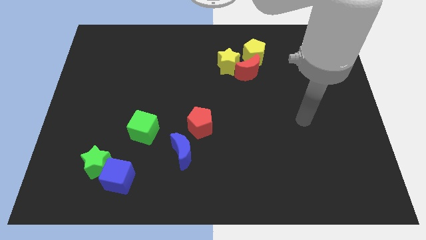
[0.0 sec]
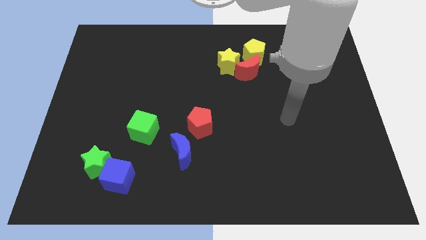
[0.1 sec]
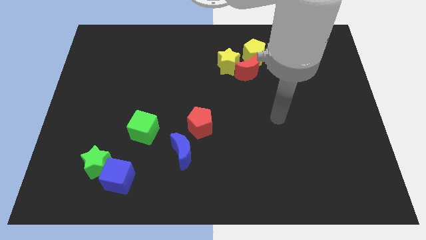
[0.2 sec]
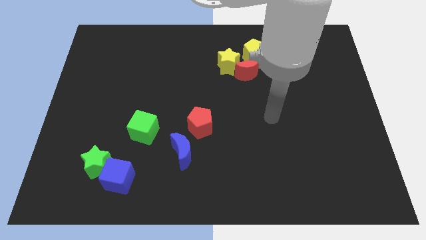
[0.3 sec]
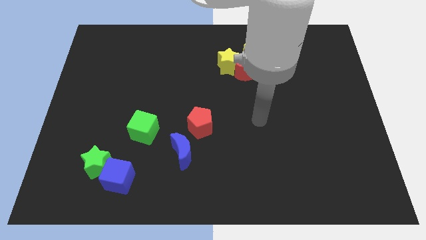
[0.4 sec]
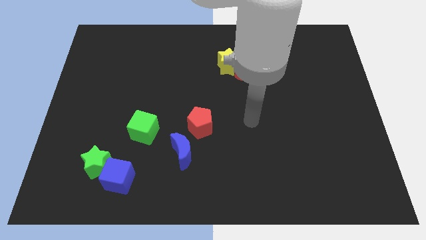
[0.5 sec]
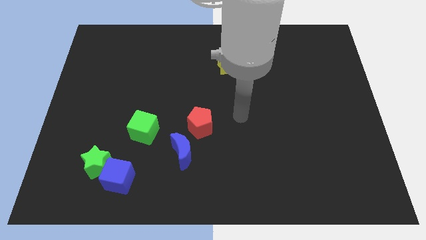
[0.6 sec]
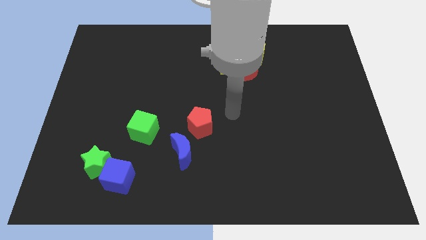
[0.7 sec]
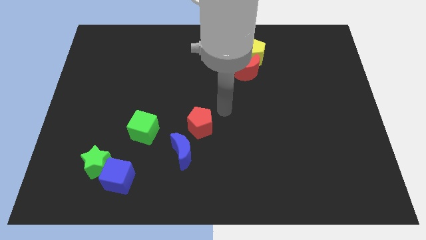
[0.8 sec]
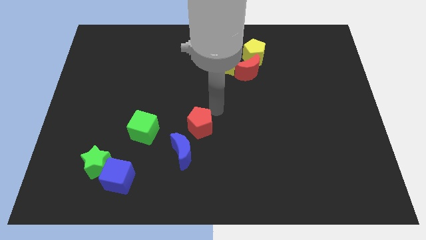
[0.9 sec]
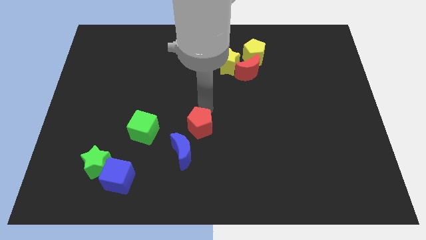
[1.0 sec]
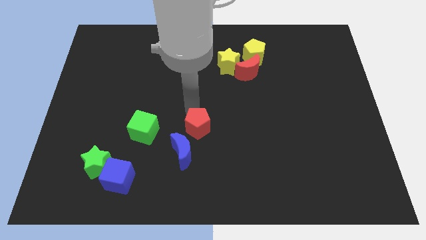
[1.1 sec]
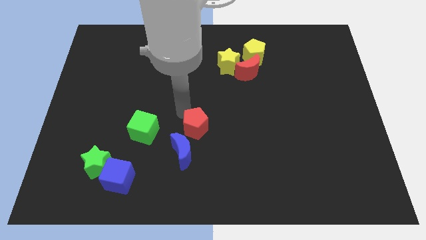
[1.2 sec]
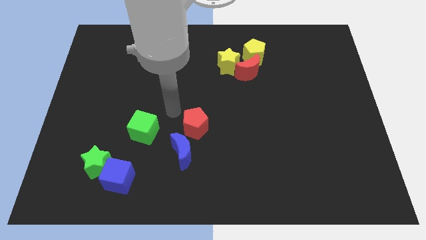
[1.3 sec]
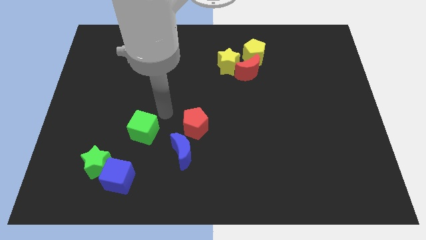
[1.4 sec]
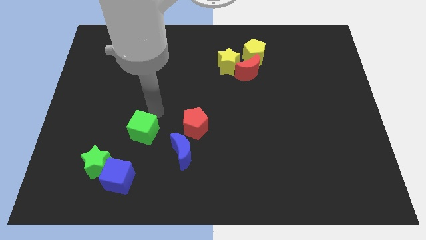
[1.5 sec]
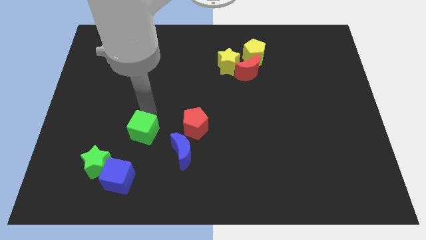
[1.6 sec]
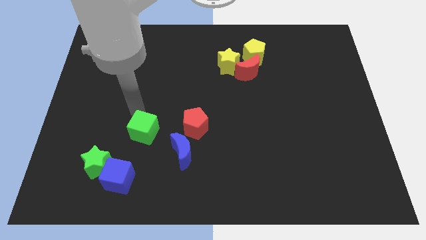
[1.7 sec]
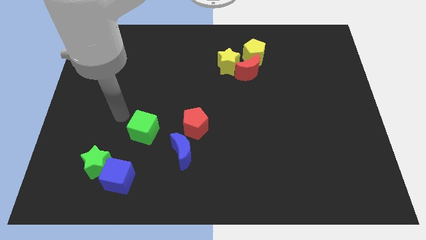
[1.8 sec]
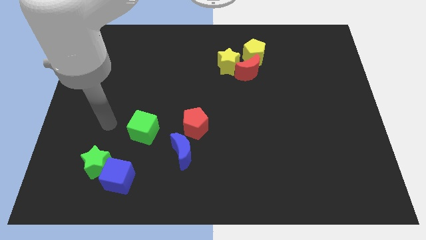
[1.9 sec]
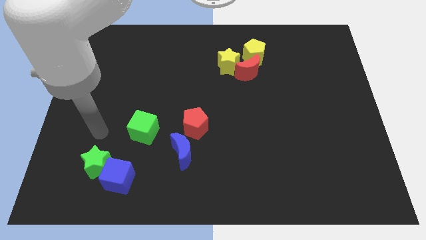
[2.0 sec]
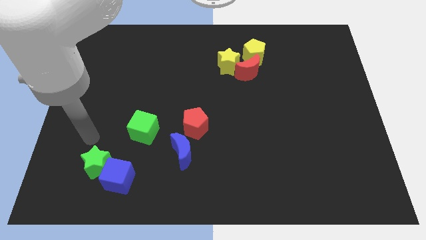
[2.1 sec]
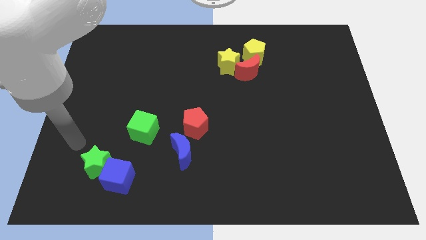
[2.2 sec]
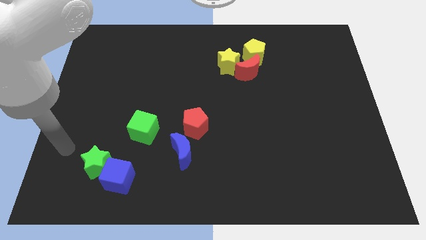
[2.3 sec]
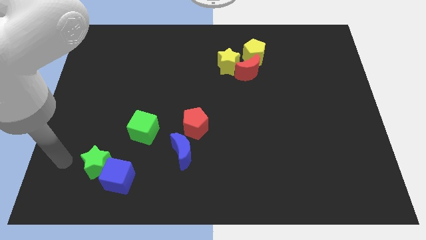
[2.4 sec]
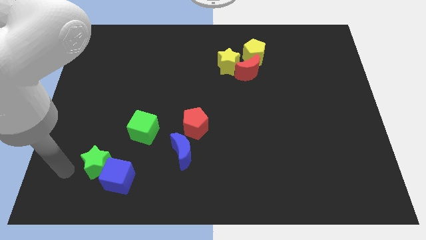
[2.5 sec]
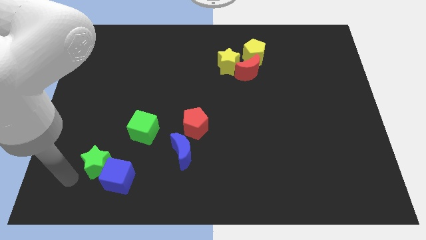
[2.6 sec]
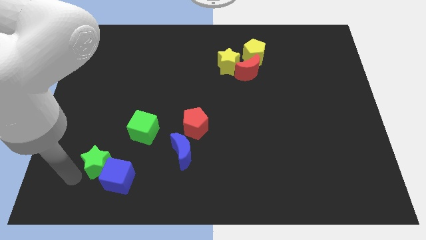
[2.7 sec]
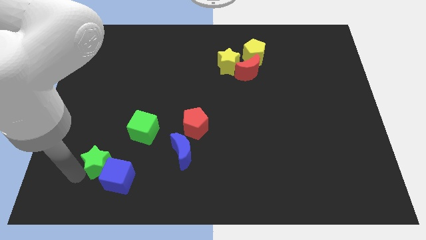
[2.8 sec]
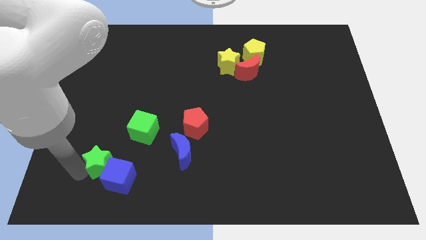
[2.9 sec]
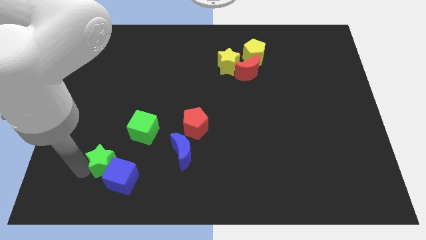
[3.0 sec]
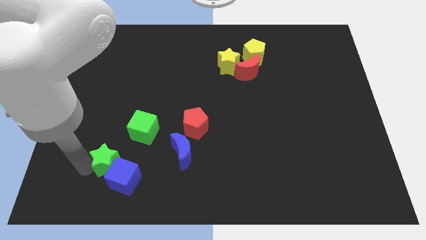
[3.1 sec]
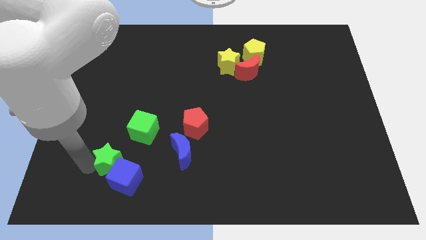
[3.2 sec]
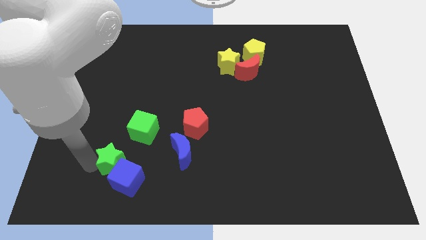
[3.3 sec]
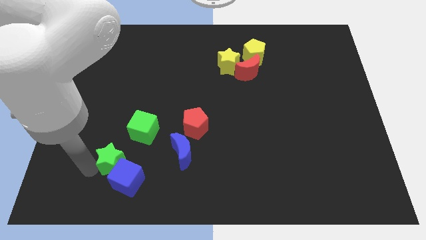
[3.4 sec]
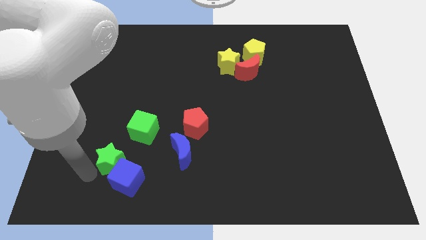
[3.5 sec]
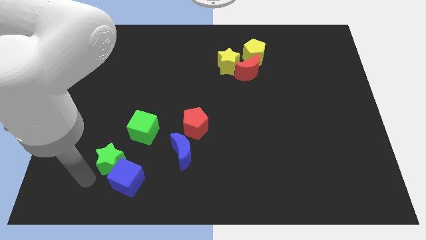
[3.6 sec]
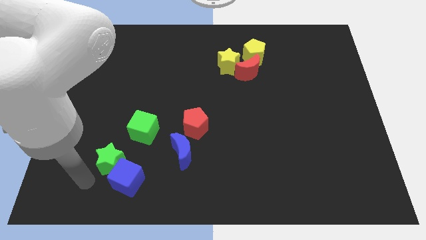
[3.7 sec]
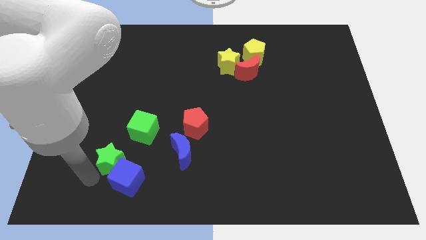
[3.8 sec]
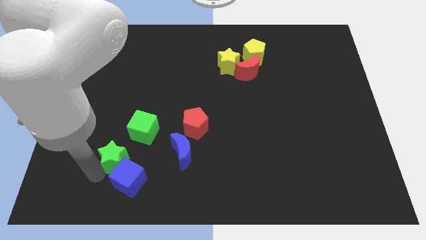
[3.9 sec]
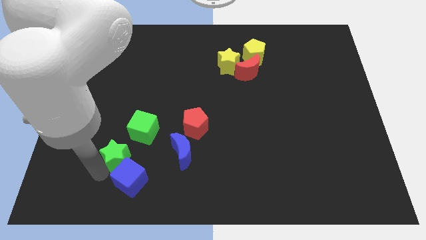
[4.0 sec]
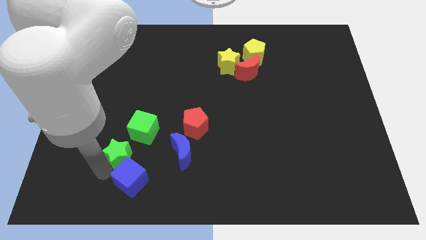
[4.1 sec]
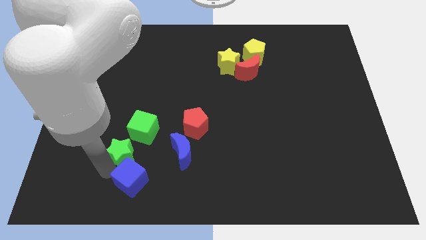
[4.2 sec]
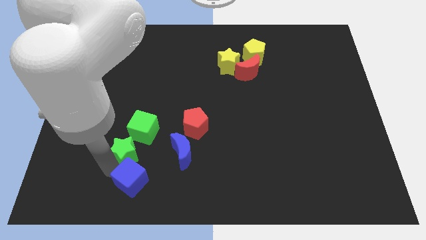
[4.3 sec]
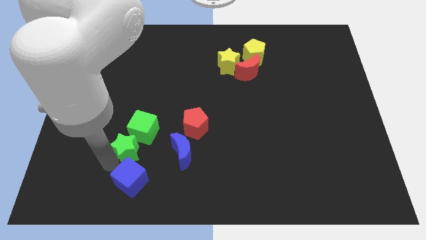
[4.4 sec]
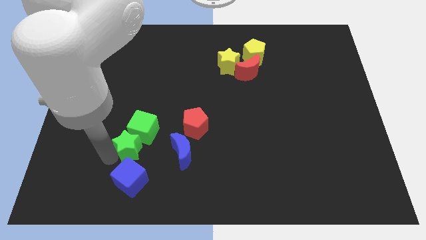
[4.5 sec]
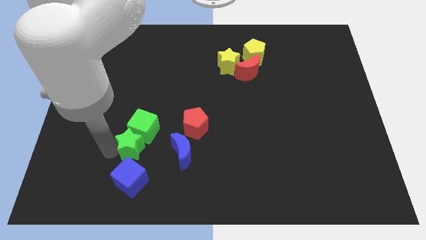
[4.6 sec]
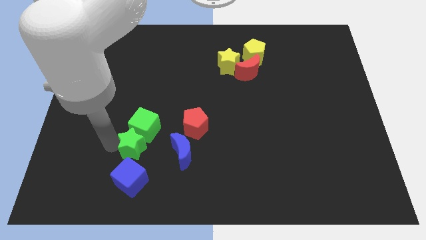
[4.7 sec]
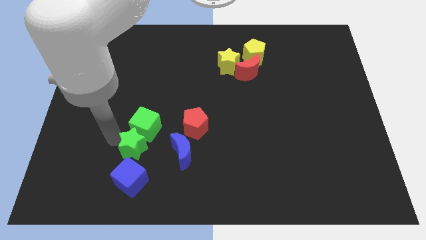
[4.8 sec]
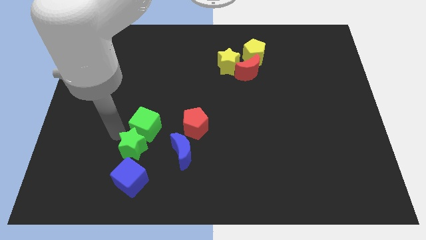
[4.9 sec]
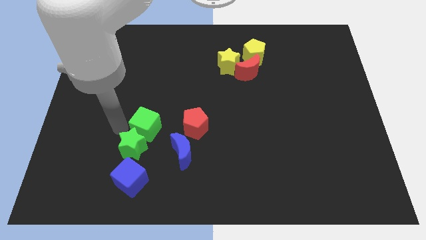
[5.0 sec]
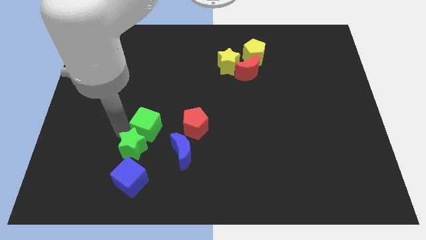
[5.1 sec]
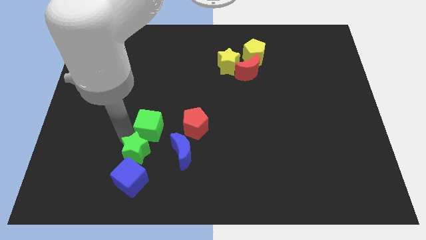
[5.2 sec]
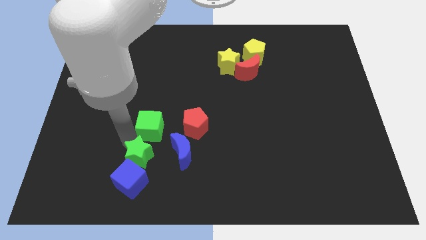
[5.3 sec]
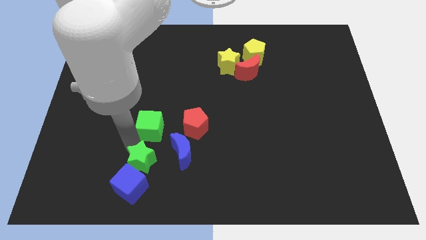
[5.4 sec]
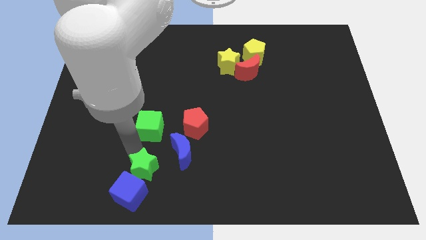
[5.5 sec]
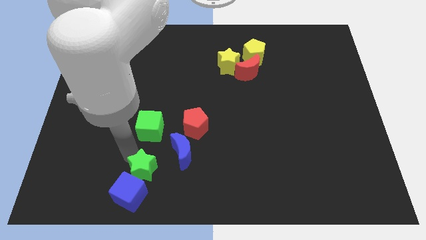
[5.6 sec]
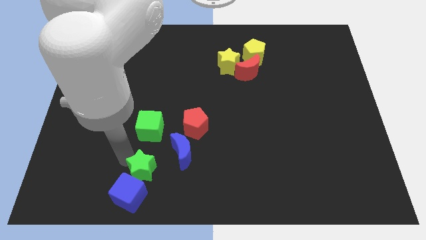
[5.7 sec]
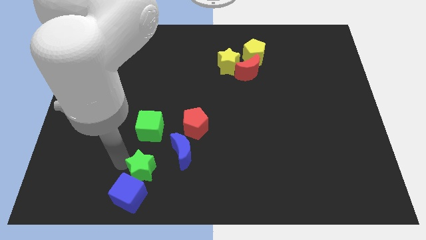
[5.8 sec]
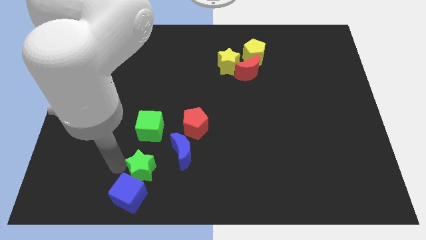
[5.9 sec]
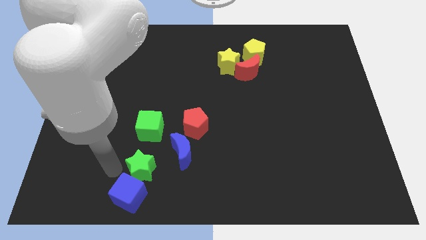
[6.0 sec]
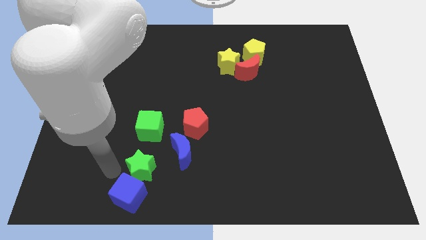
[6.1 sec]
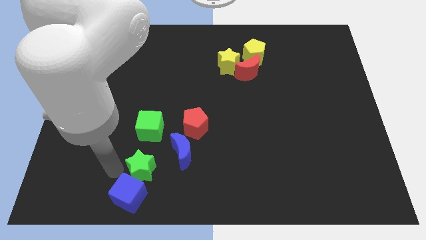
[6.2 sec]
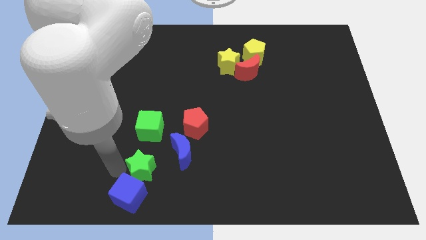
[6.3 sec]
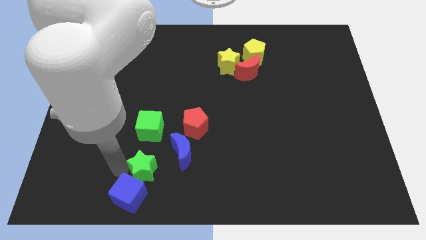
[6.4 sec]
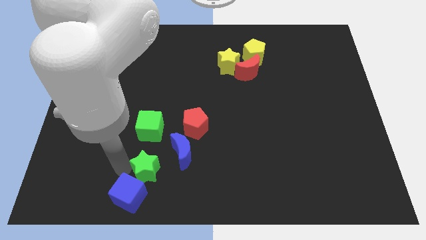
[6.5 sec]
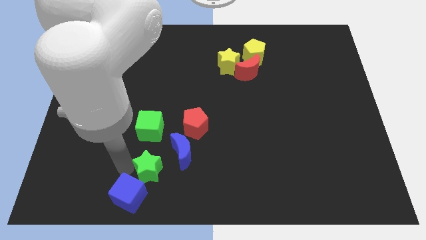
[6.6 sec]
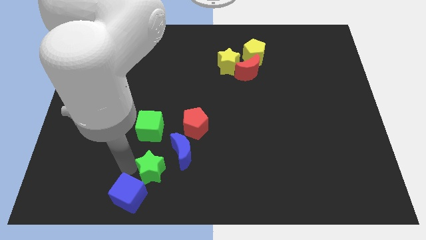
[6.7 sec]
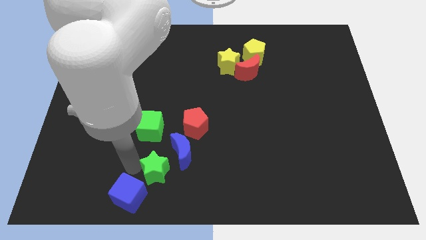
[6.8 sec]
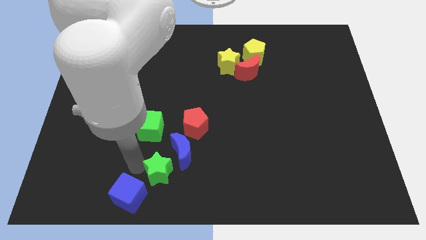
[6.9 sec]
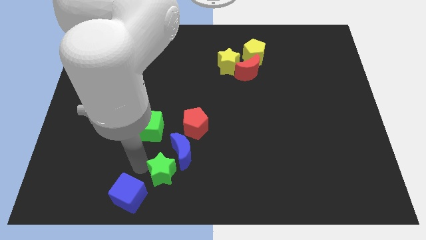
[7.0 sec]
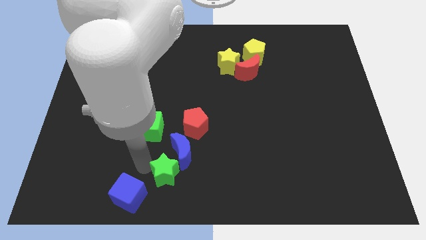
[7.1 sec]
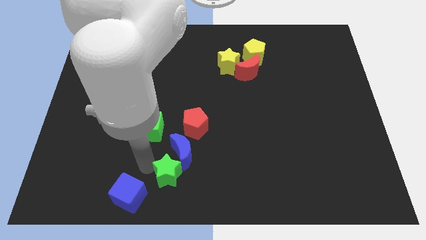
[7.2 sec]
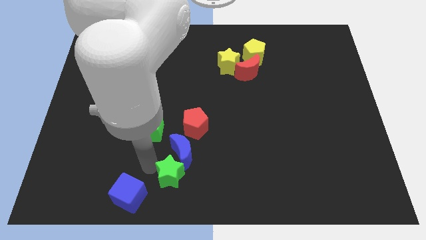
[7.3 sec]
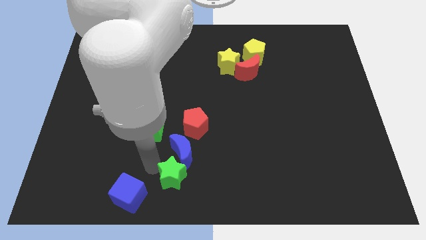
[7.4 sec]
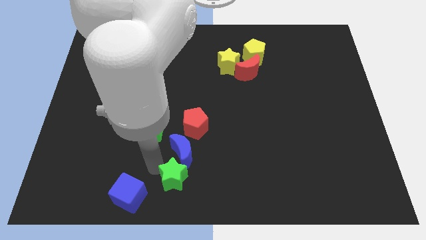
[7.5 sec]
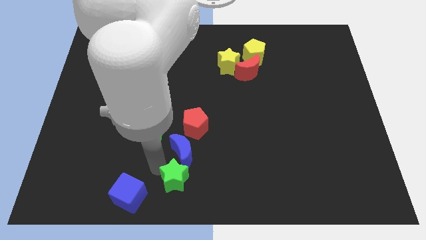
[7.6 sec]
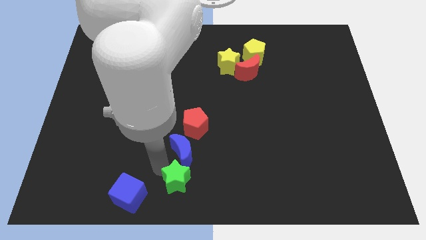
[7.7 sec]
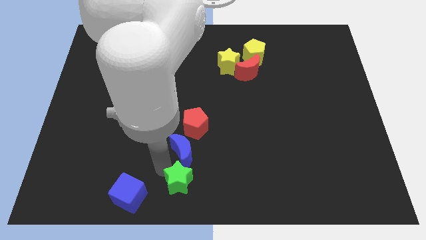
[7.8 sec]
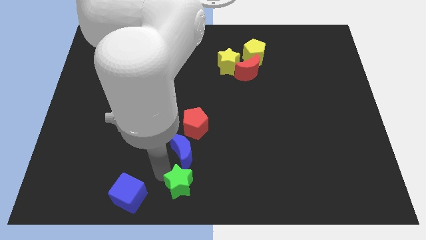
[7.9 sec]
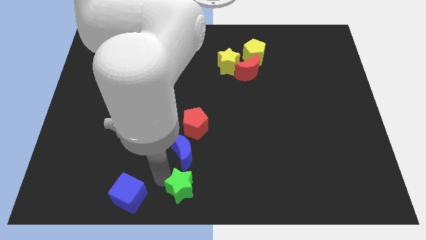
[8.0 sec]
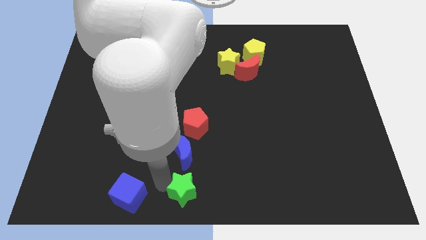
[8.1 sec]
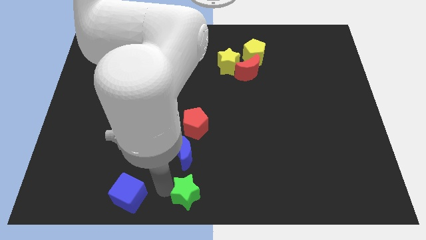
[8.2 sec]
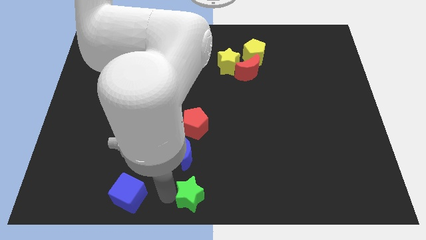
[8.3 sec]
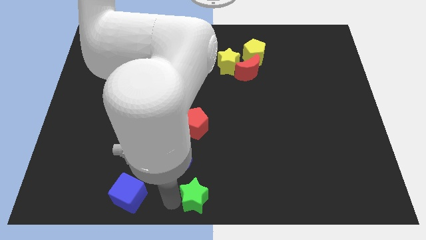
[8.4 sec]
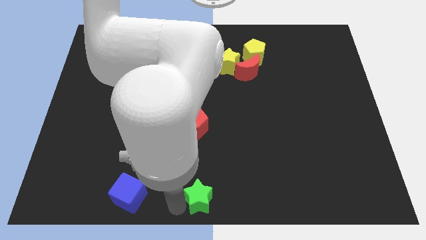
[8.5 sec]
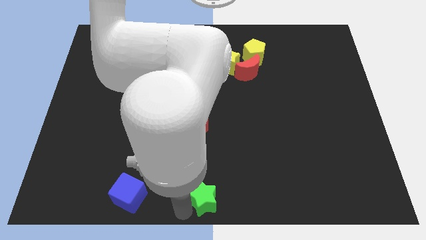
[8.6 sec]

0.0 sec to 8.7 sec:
move the green star to the right
